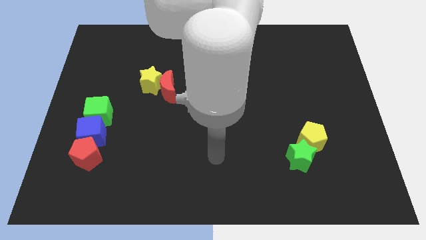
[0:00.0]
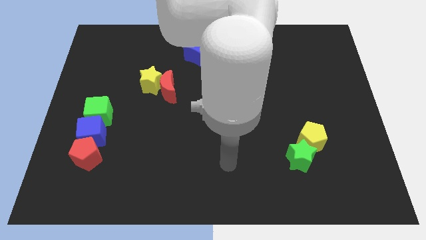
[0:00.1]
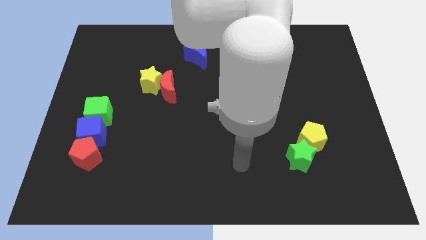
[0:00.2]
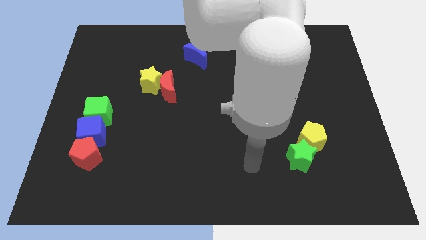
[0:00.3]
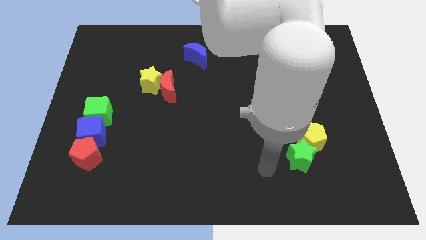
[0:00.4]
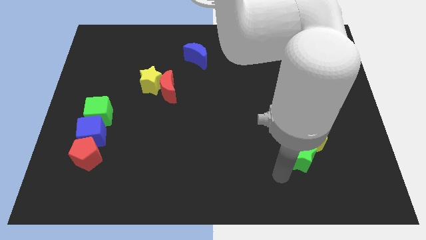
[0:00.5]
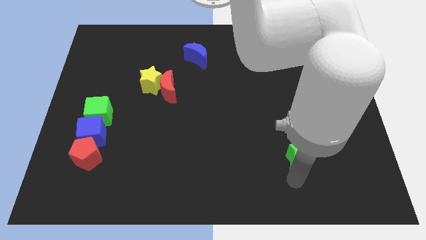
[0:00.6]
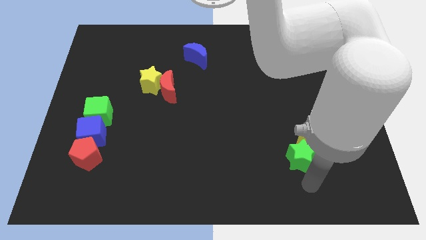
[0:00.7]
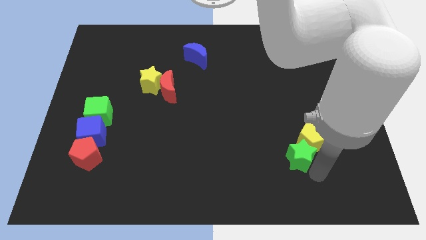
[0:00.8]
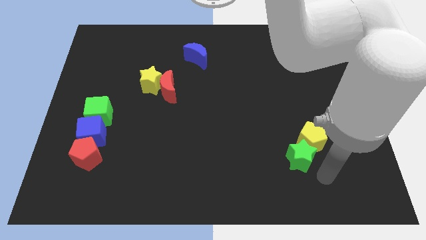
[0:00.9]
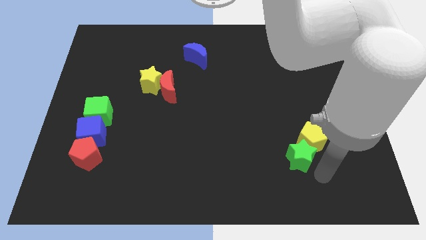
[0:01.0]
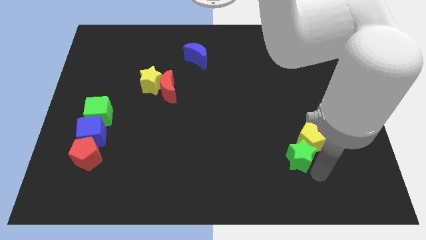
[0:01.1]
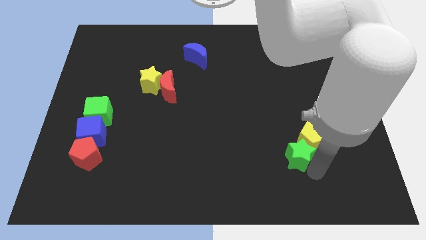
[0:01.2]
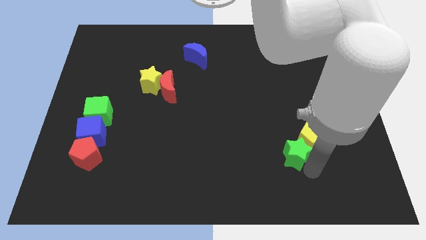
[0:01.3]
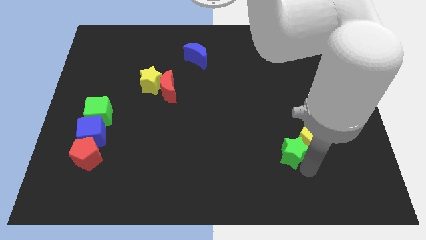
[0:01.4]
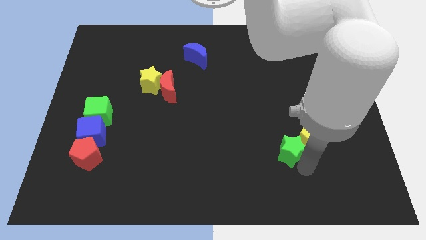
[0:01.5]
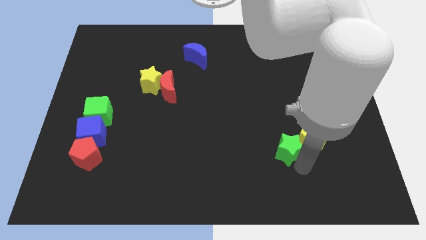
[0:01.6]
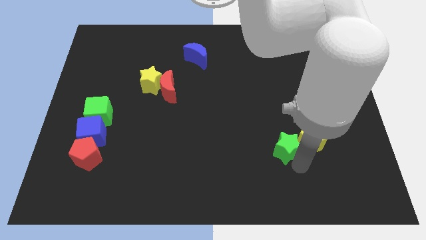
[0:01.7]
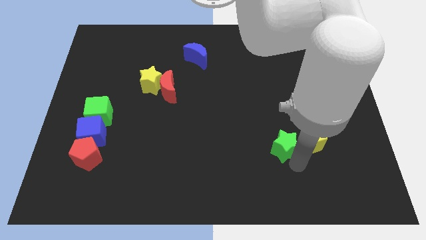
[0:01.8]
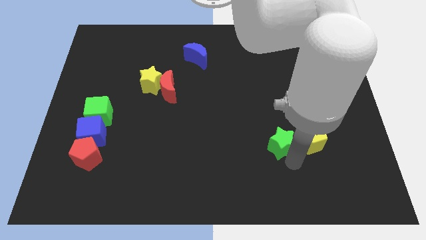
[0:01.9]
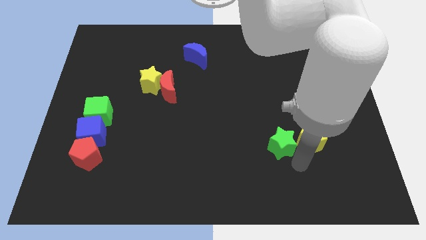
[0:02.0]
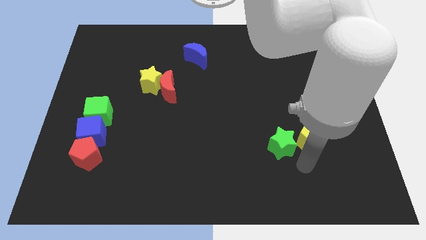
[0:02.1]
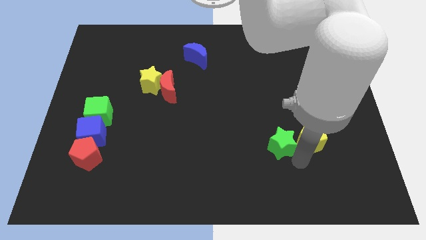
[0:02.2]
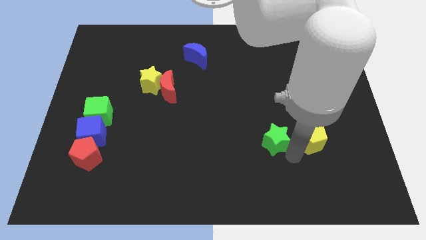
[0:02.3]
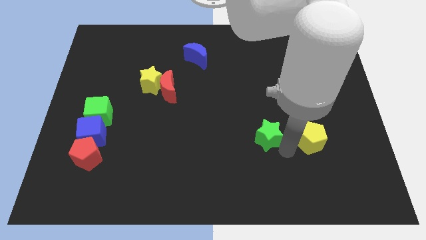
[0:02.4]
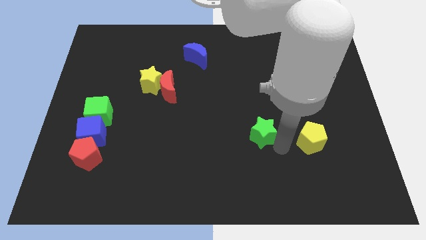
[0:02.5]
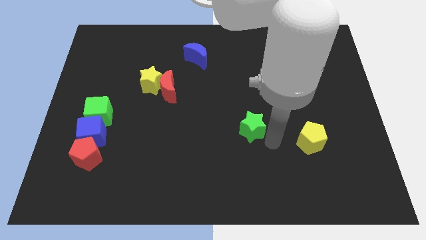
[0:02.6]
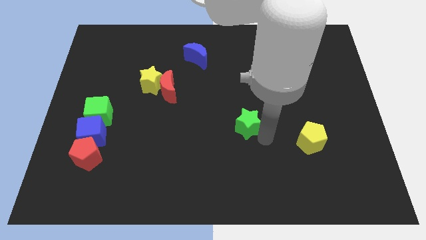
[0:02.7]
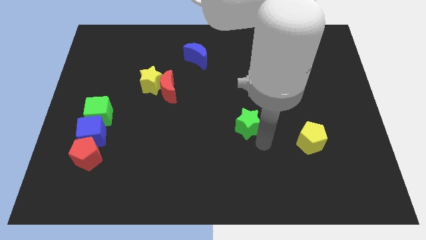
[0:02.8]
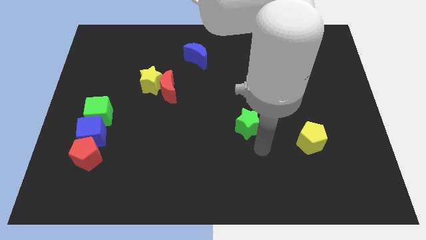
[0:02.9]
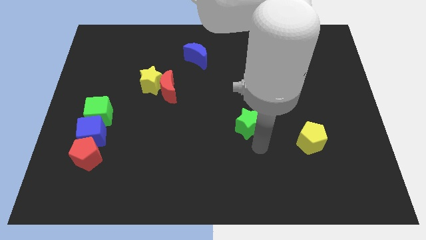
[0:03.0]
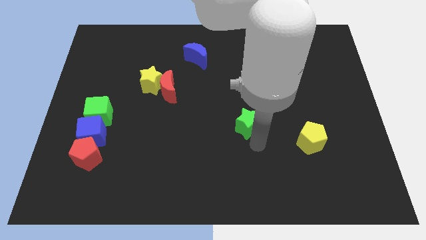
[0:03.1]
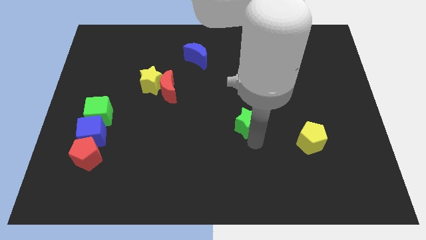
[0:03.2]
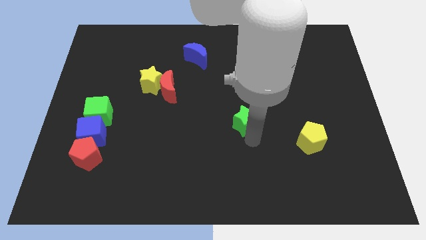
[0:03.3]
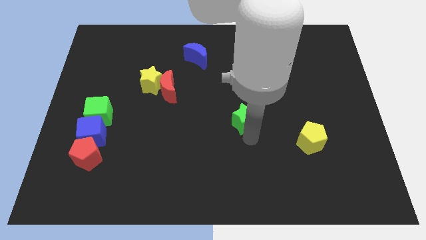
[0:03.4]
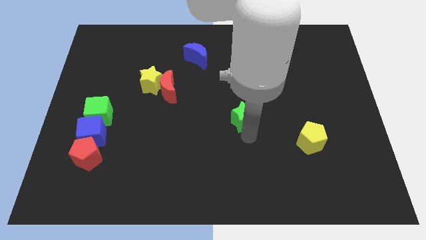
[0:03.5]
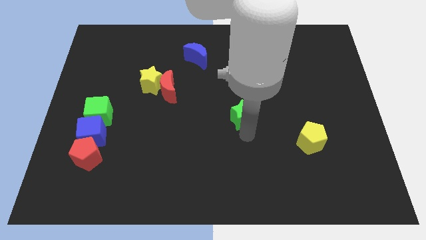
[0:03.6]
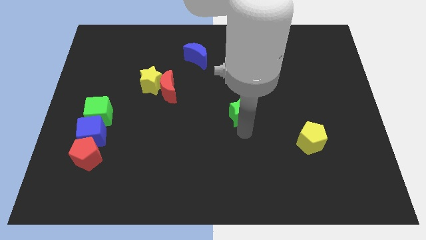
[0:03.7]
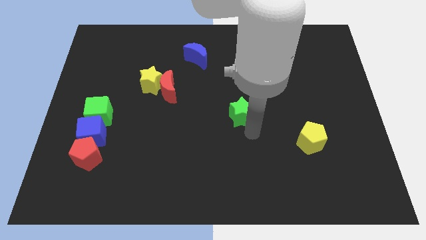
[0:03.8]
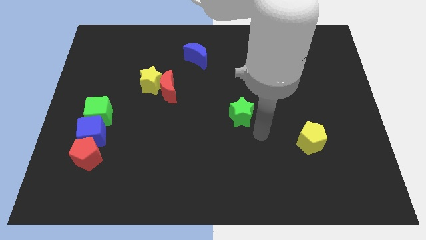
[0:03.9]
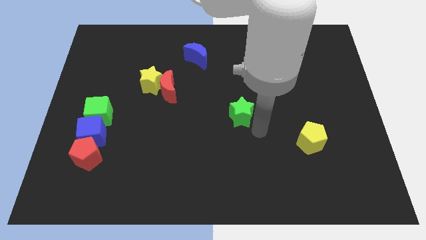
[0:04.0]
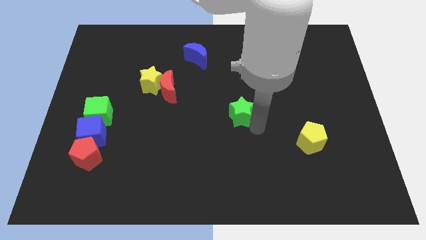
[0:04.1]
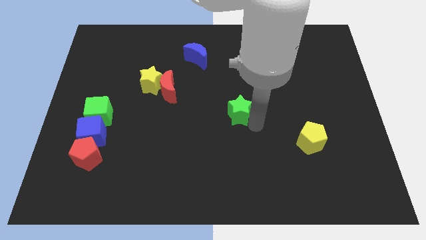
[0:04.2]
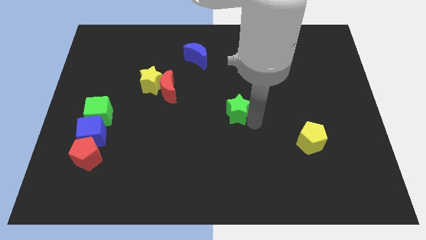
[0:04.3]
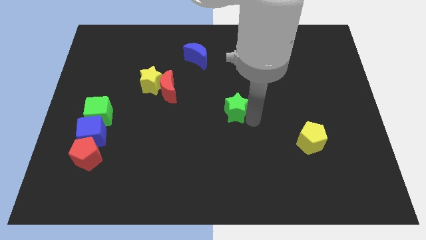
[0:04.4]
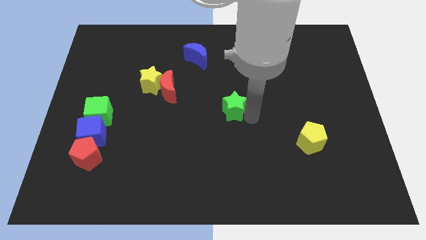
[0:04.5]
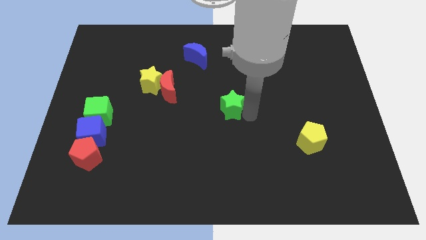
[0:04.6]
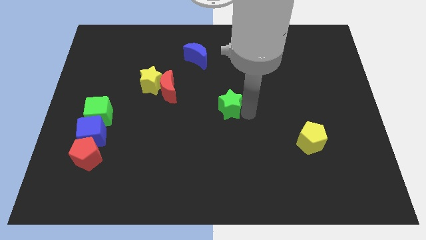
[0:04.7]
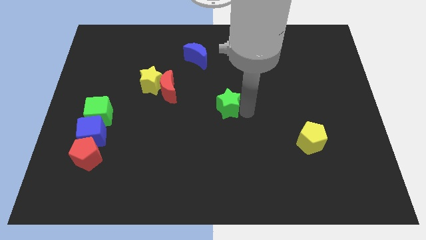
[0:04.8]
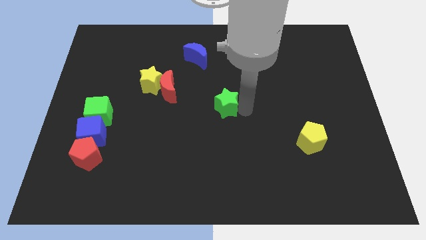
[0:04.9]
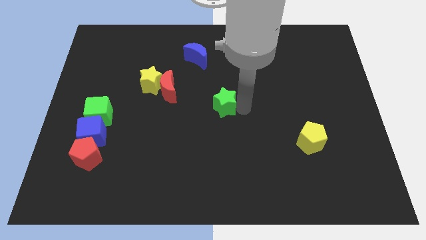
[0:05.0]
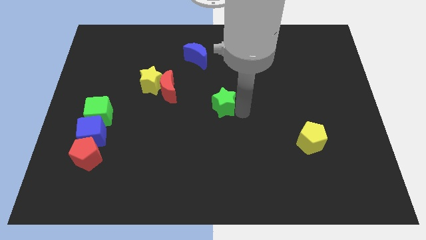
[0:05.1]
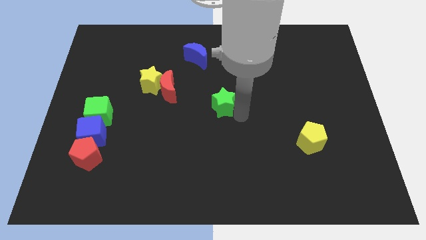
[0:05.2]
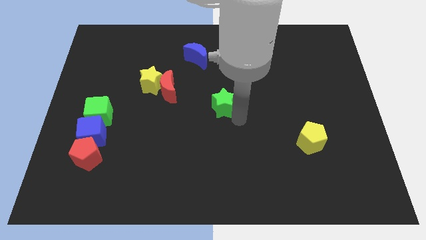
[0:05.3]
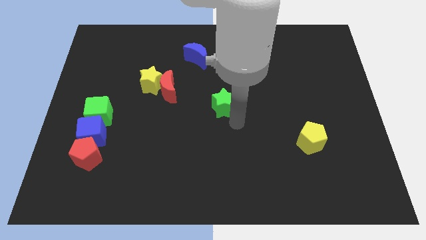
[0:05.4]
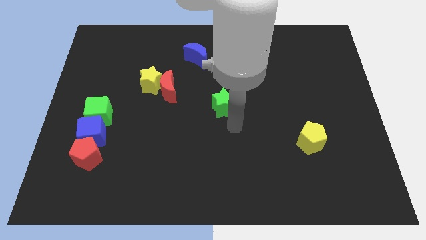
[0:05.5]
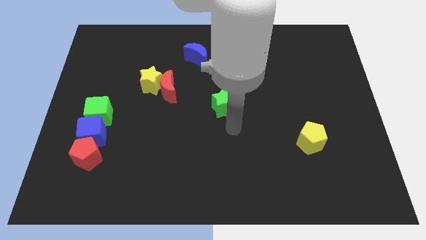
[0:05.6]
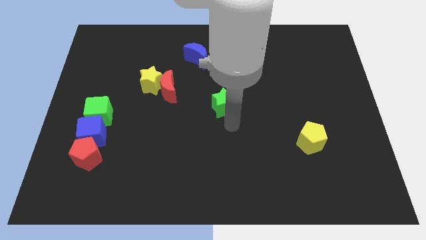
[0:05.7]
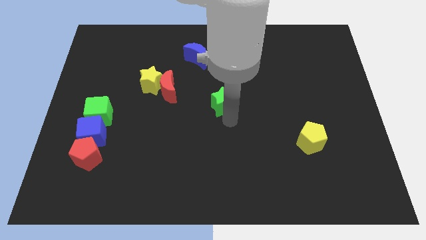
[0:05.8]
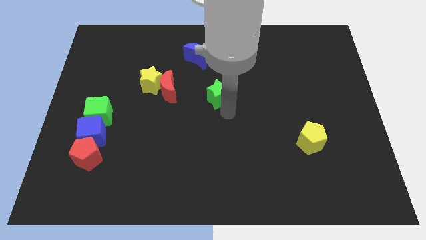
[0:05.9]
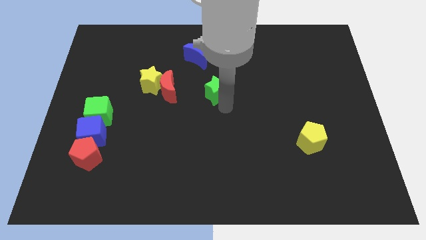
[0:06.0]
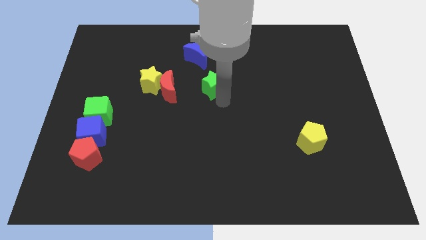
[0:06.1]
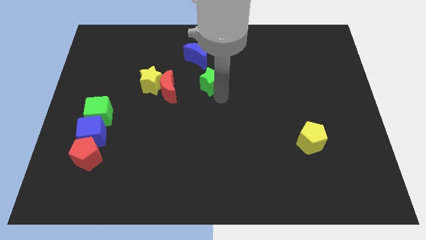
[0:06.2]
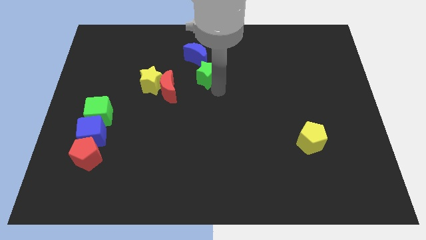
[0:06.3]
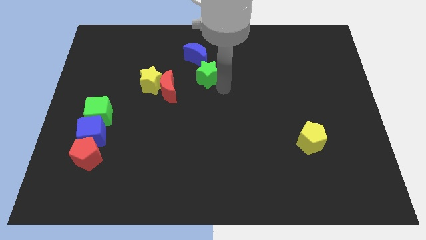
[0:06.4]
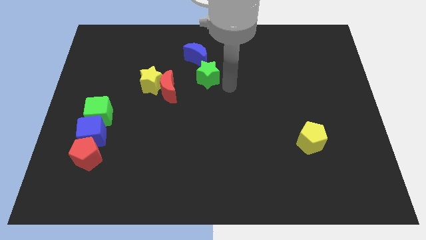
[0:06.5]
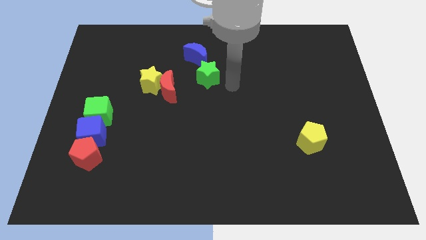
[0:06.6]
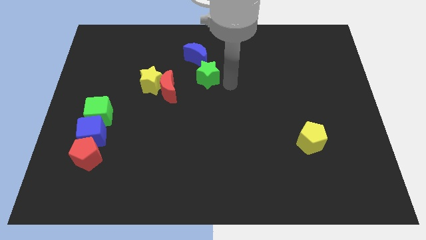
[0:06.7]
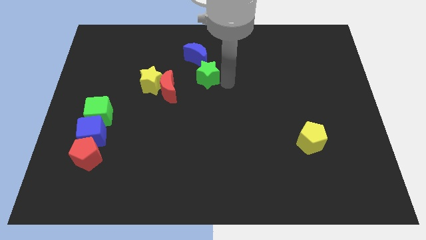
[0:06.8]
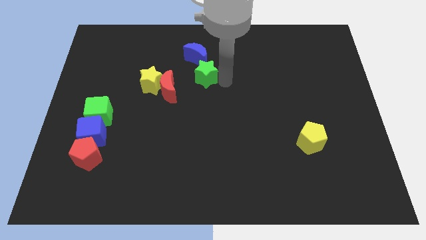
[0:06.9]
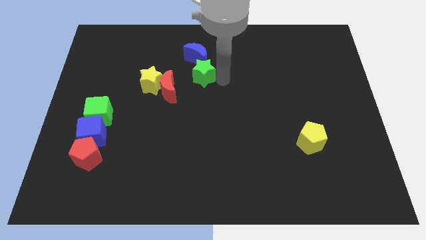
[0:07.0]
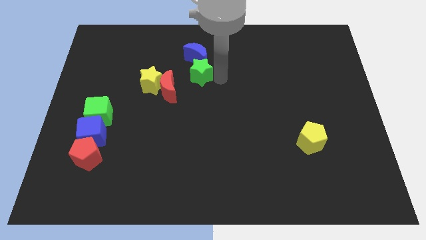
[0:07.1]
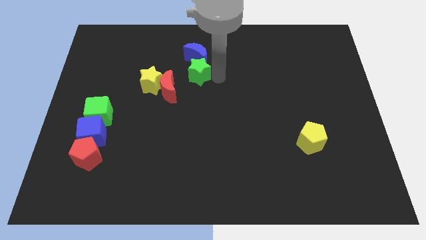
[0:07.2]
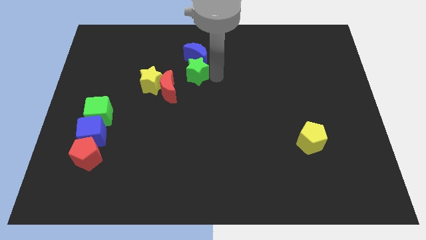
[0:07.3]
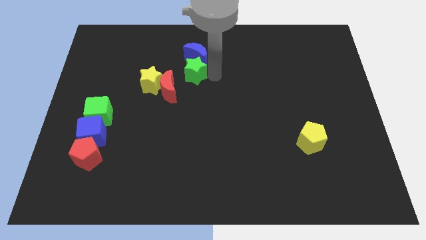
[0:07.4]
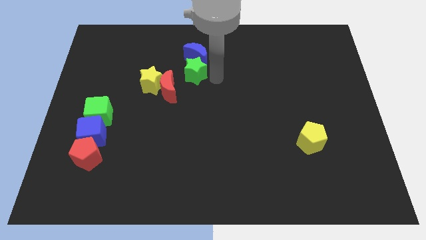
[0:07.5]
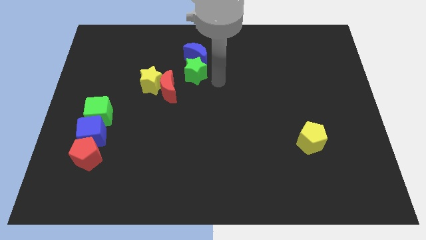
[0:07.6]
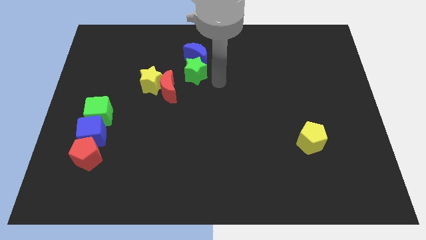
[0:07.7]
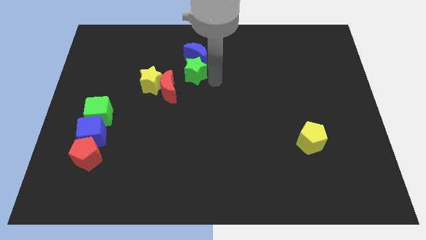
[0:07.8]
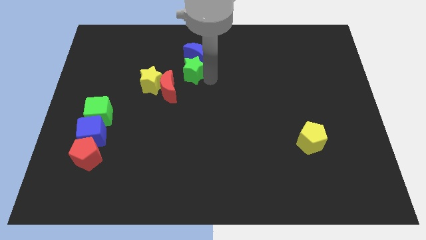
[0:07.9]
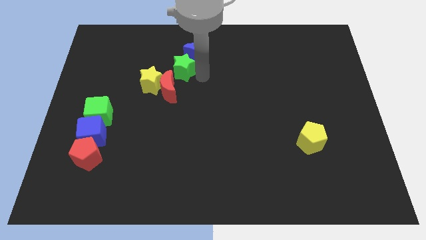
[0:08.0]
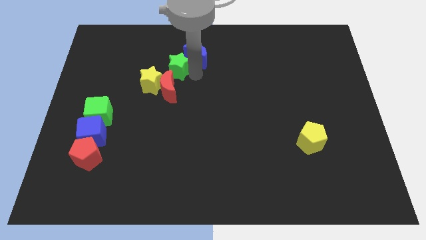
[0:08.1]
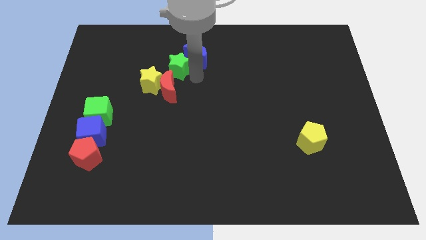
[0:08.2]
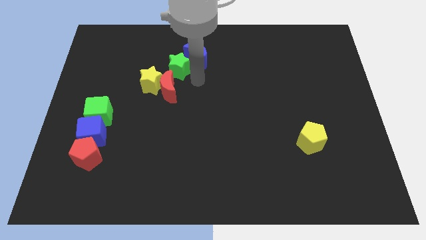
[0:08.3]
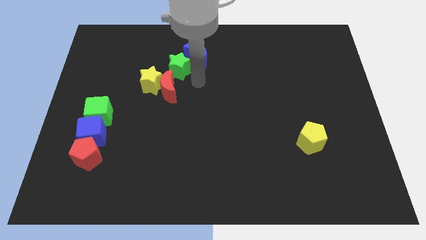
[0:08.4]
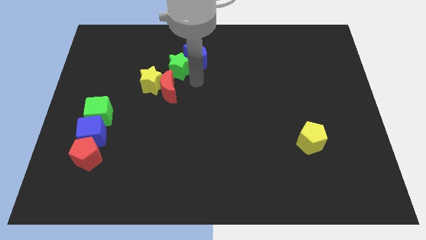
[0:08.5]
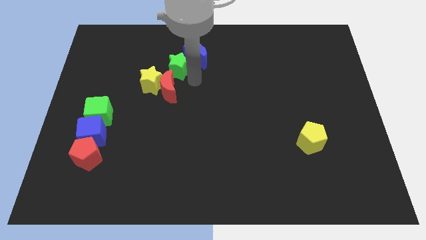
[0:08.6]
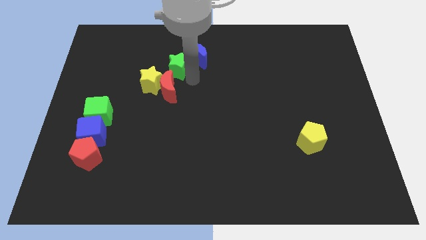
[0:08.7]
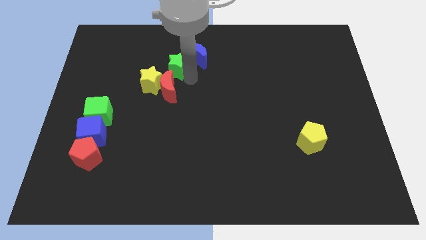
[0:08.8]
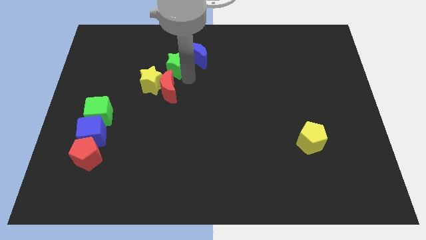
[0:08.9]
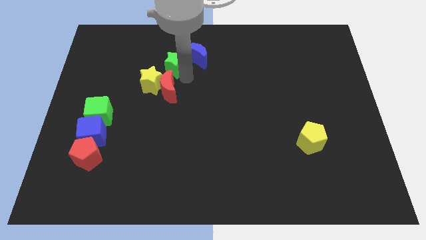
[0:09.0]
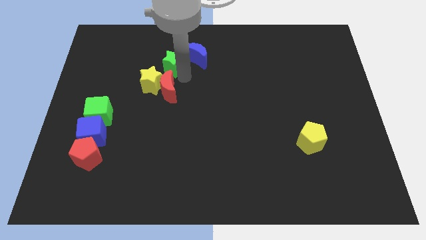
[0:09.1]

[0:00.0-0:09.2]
put the green star to the top of the yellow star
